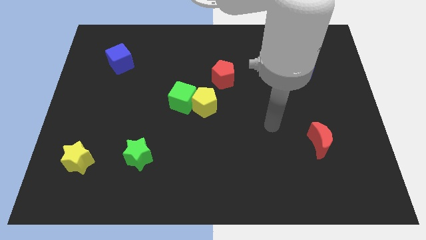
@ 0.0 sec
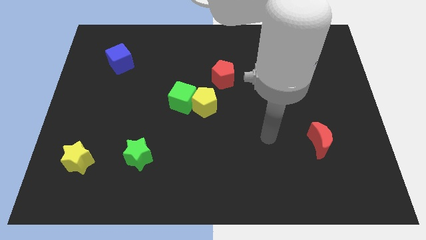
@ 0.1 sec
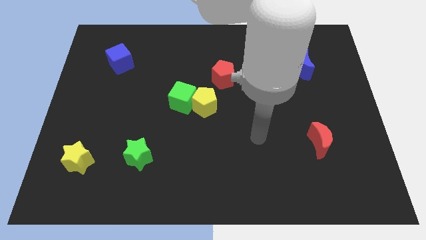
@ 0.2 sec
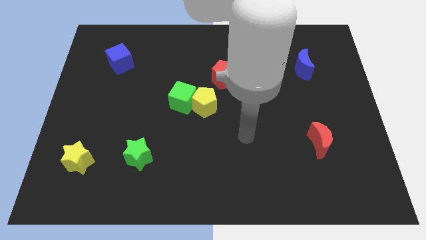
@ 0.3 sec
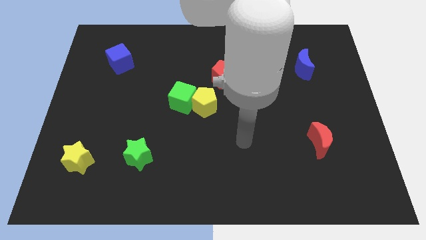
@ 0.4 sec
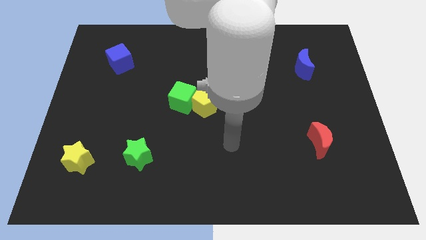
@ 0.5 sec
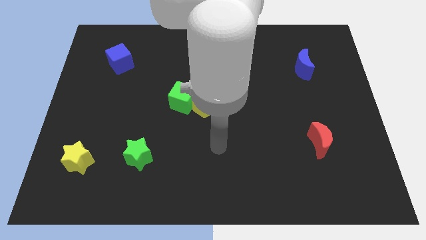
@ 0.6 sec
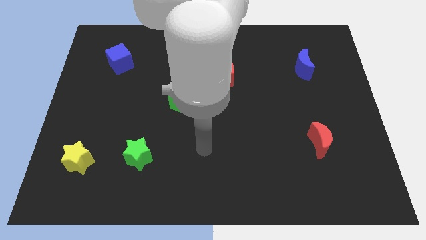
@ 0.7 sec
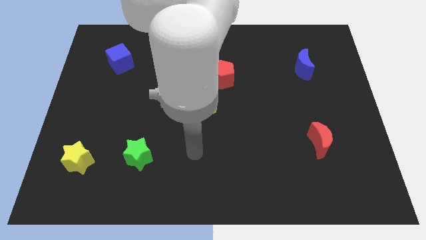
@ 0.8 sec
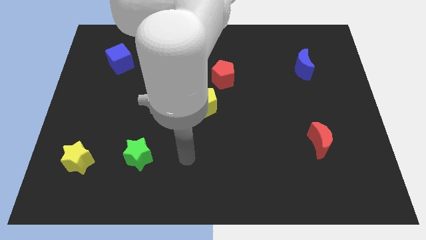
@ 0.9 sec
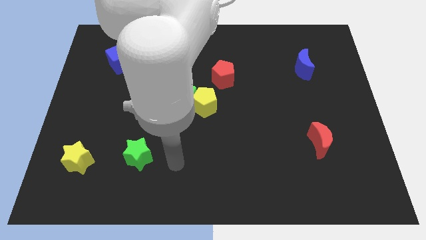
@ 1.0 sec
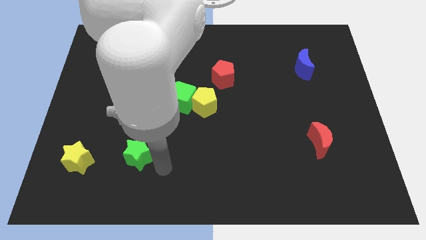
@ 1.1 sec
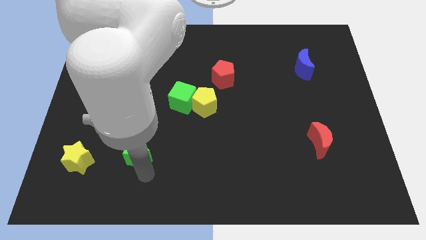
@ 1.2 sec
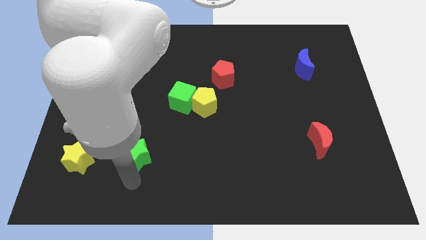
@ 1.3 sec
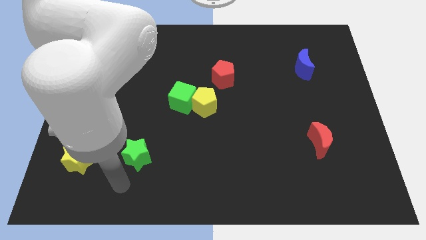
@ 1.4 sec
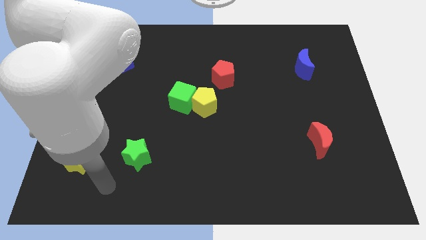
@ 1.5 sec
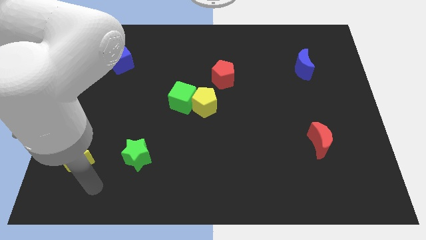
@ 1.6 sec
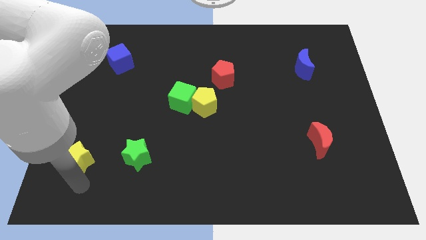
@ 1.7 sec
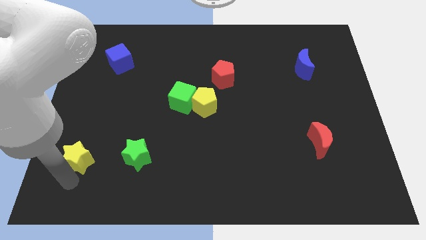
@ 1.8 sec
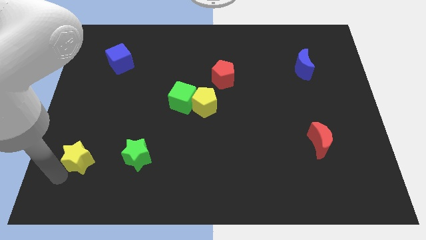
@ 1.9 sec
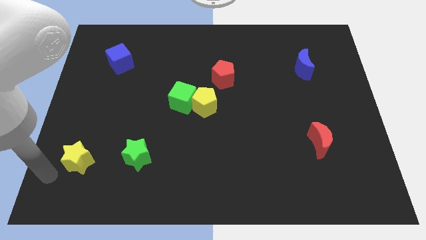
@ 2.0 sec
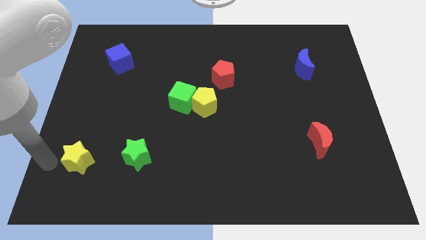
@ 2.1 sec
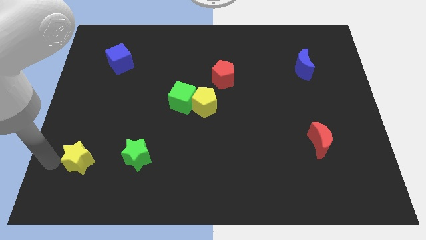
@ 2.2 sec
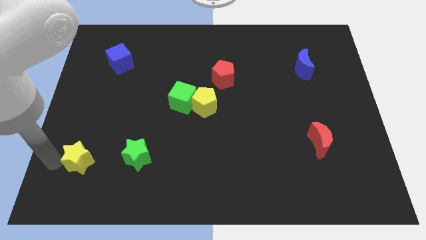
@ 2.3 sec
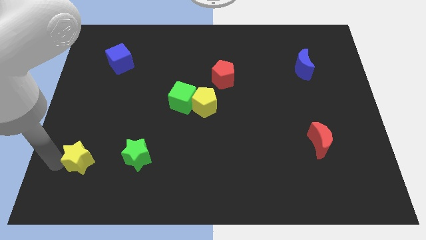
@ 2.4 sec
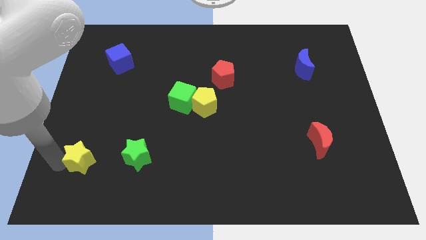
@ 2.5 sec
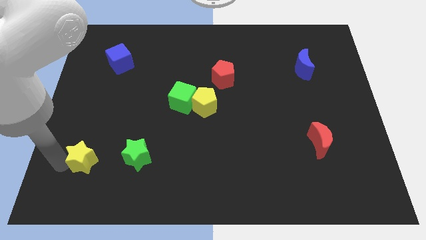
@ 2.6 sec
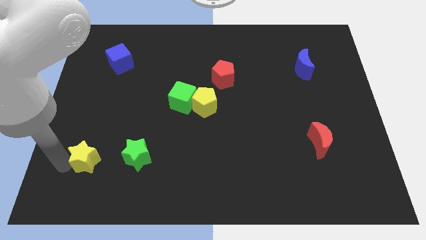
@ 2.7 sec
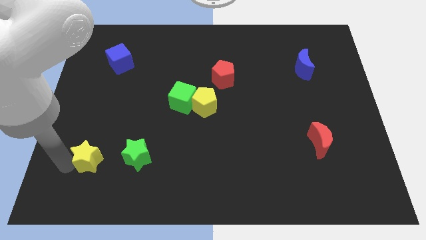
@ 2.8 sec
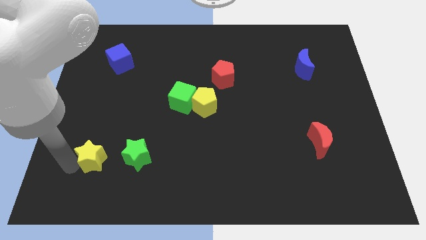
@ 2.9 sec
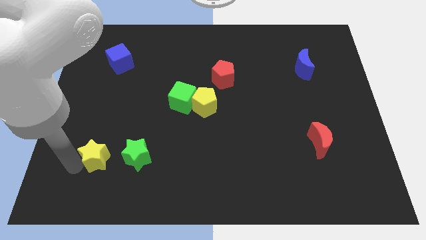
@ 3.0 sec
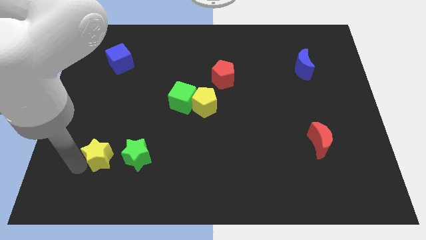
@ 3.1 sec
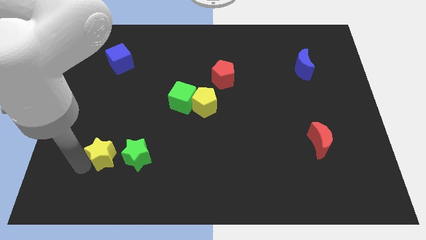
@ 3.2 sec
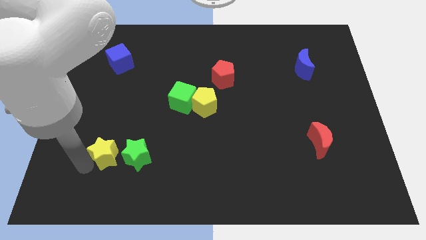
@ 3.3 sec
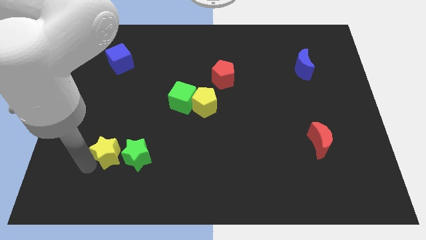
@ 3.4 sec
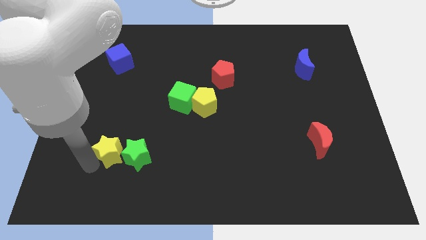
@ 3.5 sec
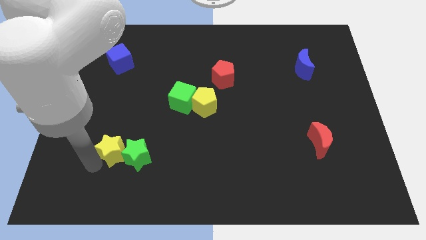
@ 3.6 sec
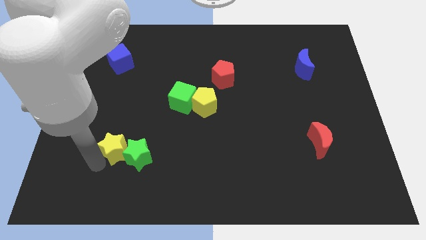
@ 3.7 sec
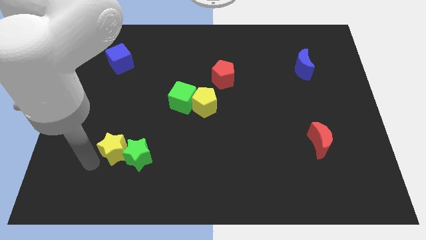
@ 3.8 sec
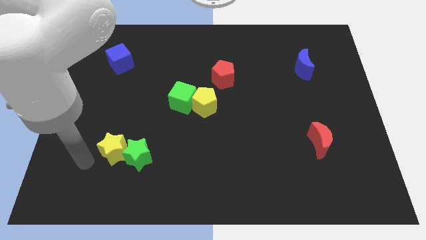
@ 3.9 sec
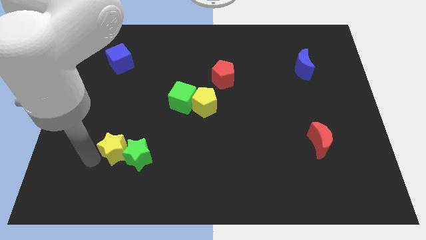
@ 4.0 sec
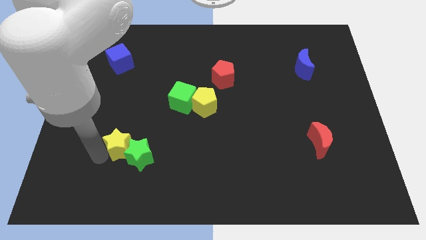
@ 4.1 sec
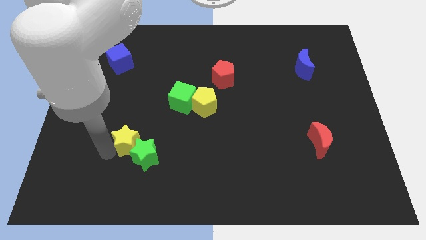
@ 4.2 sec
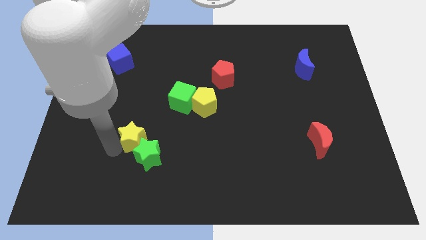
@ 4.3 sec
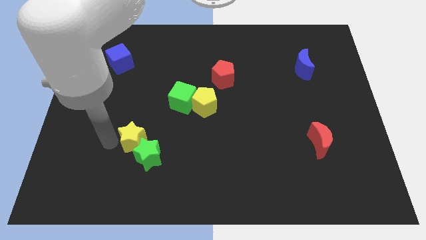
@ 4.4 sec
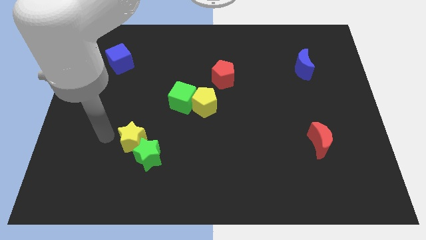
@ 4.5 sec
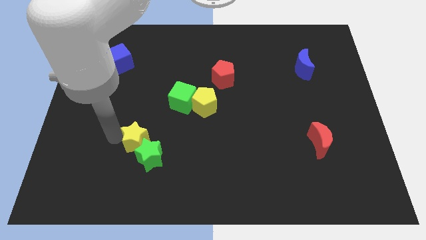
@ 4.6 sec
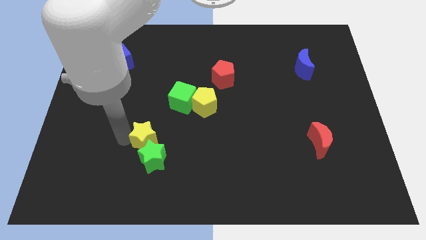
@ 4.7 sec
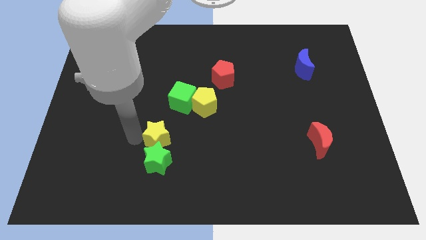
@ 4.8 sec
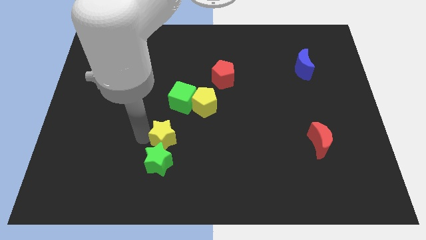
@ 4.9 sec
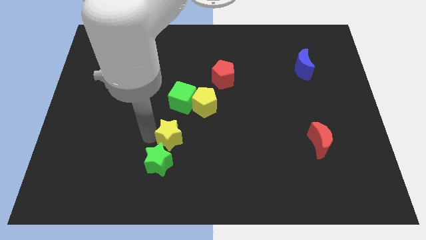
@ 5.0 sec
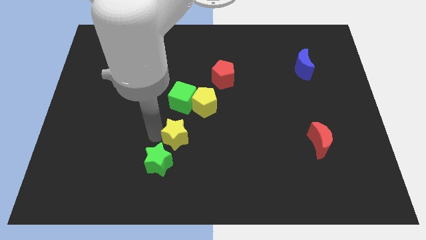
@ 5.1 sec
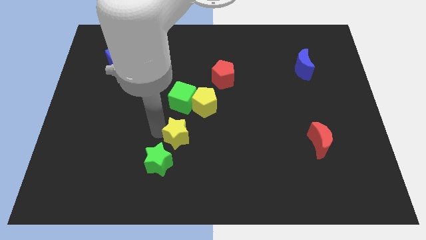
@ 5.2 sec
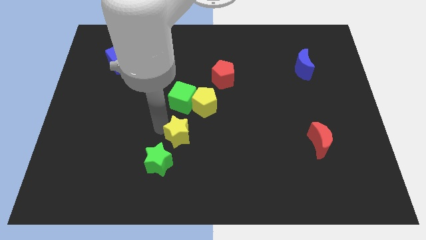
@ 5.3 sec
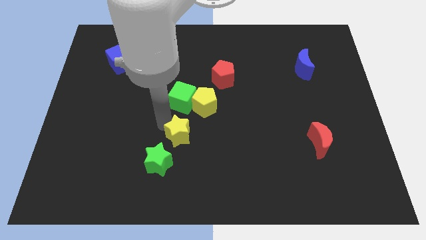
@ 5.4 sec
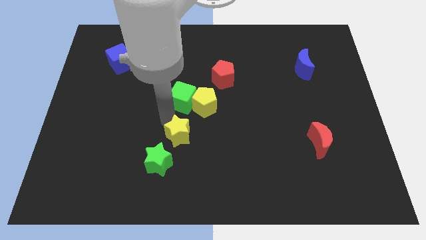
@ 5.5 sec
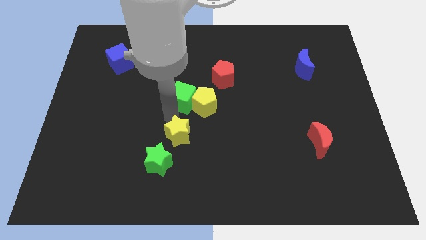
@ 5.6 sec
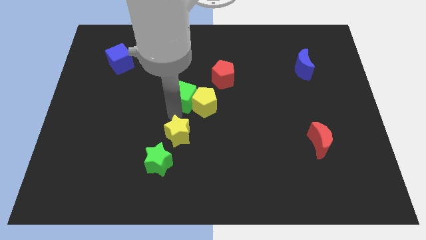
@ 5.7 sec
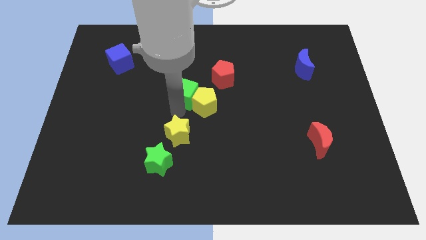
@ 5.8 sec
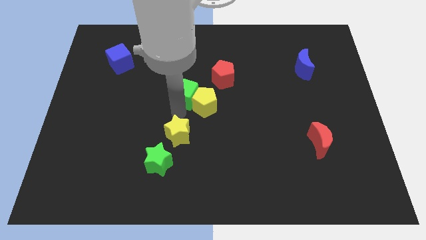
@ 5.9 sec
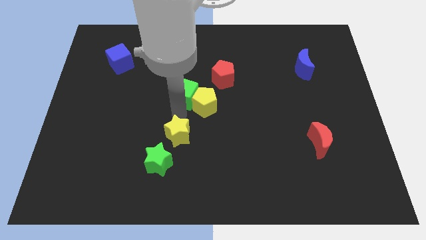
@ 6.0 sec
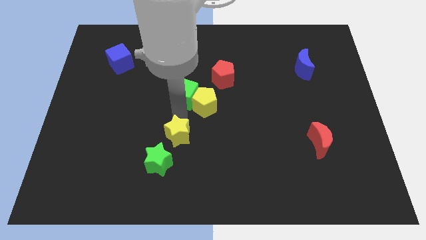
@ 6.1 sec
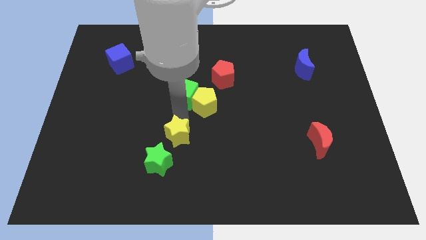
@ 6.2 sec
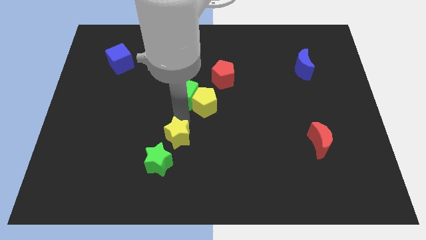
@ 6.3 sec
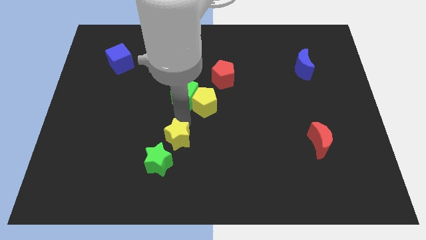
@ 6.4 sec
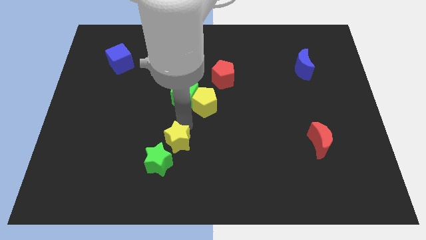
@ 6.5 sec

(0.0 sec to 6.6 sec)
move the yellow star to the right

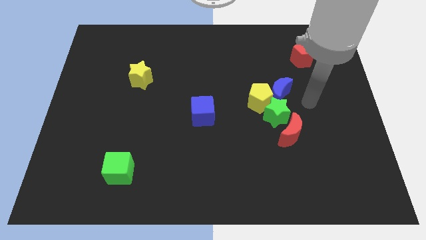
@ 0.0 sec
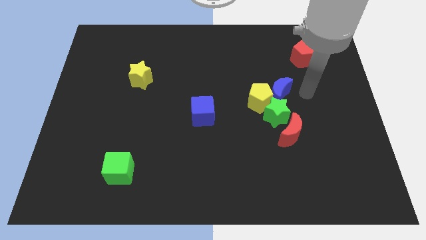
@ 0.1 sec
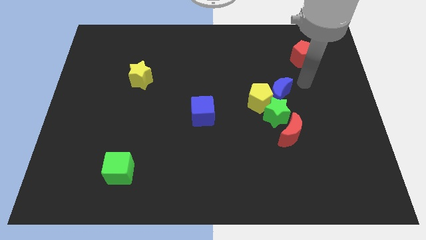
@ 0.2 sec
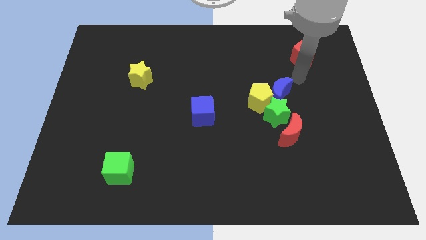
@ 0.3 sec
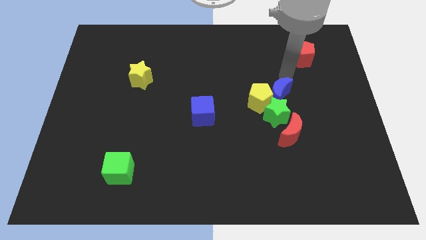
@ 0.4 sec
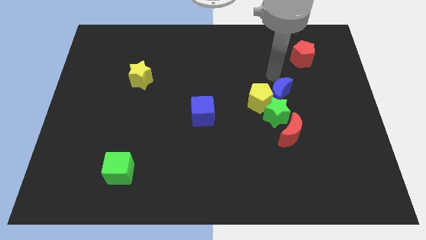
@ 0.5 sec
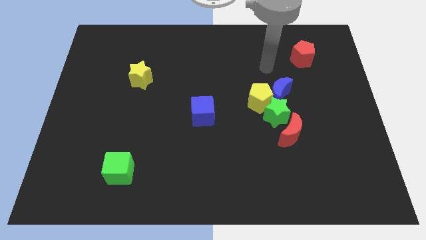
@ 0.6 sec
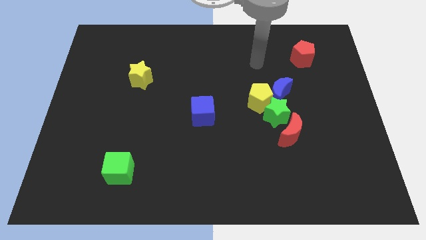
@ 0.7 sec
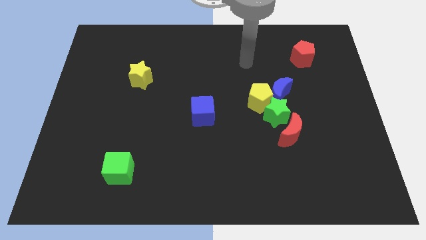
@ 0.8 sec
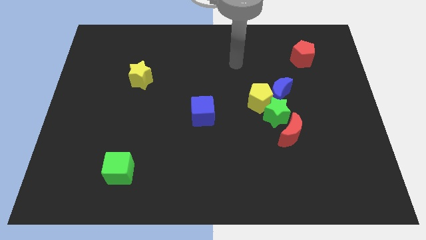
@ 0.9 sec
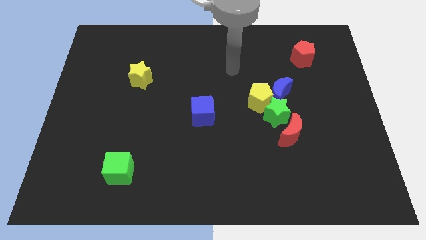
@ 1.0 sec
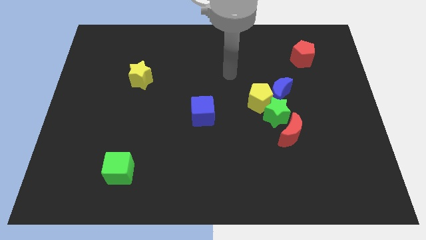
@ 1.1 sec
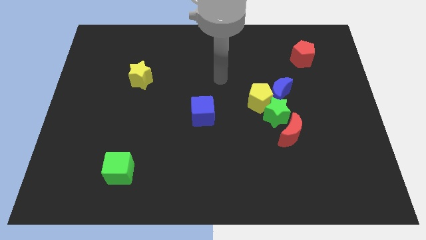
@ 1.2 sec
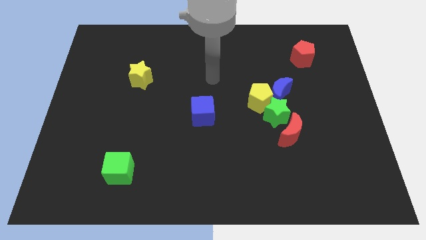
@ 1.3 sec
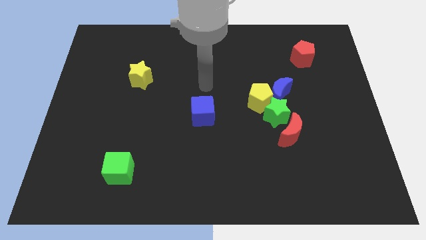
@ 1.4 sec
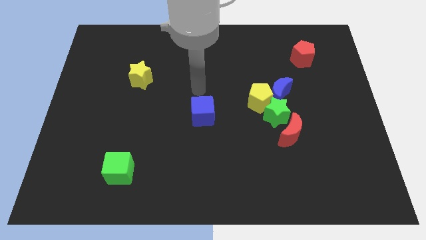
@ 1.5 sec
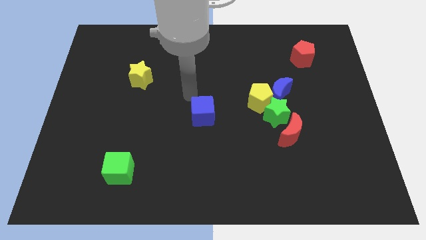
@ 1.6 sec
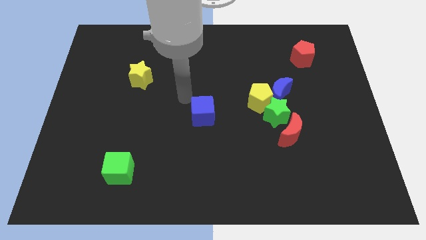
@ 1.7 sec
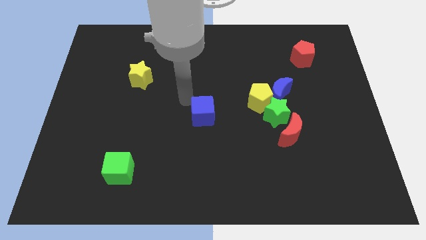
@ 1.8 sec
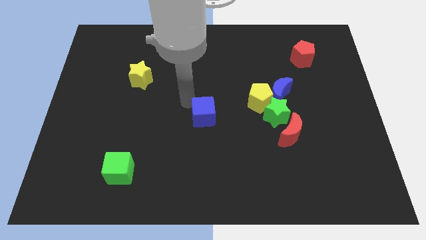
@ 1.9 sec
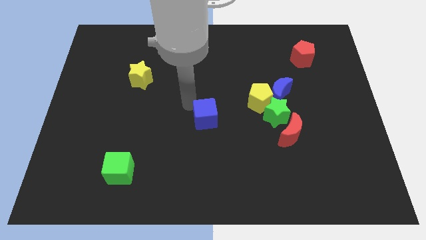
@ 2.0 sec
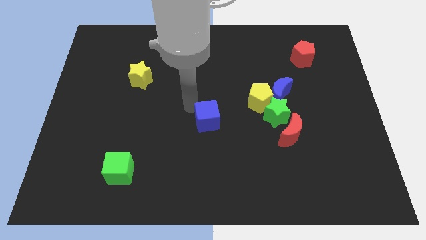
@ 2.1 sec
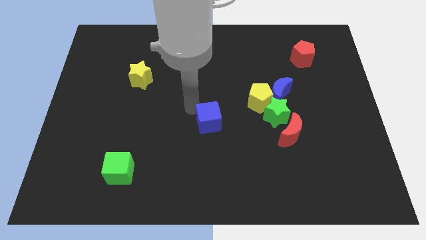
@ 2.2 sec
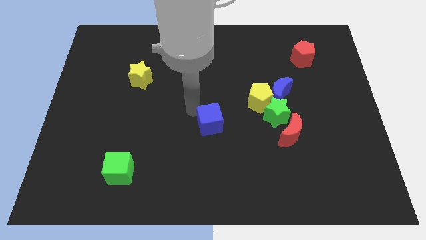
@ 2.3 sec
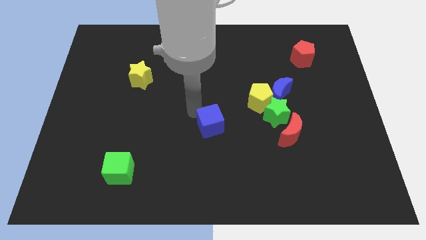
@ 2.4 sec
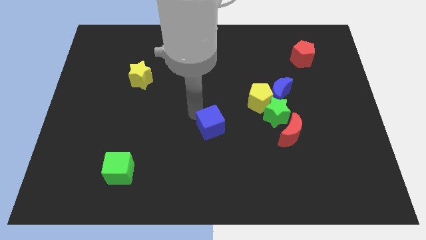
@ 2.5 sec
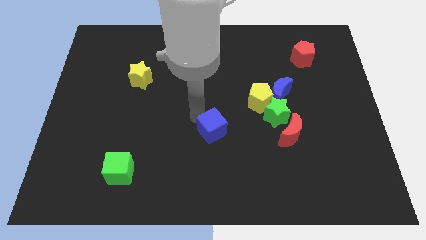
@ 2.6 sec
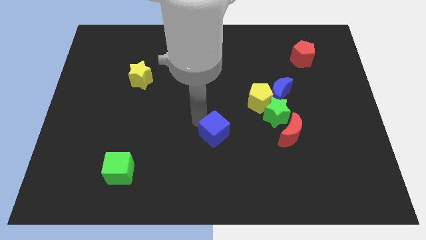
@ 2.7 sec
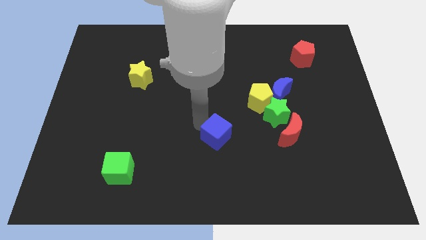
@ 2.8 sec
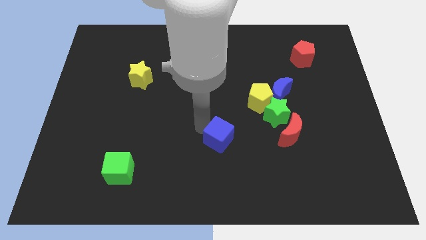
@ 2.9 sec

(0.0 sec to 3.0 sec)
slightly push the blue cube down and right diagonally
